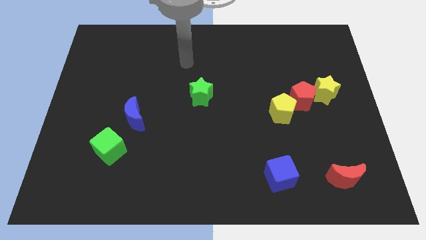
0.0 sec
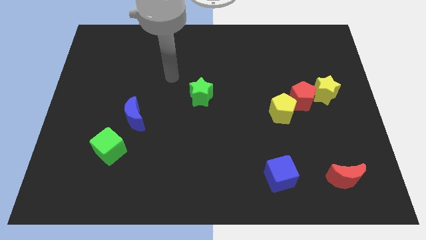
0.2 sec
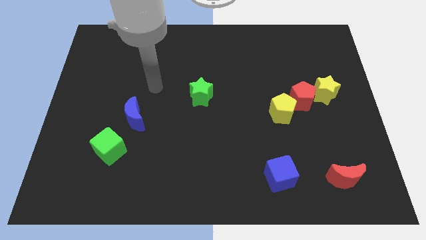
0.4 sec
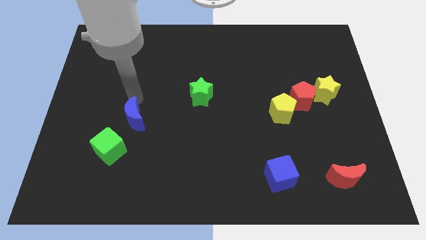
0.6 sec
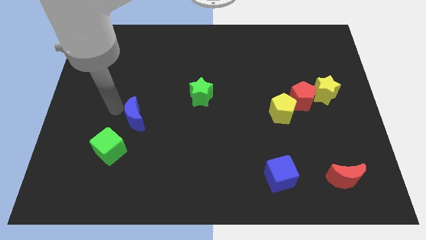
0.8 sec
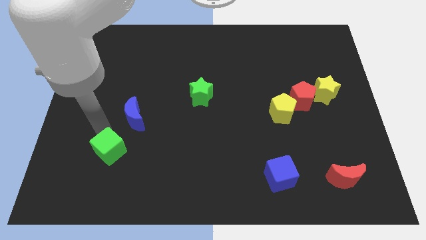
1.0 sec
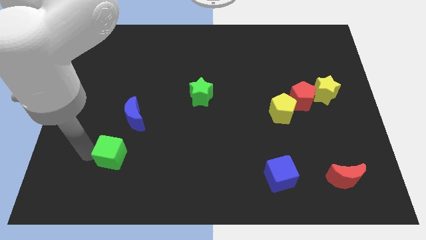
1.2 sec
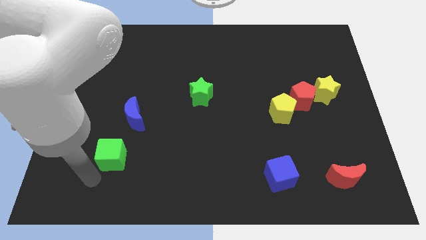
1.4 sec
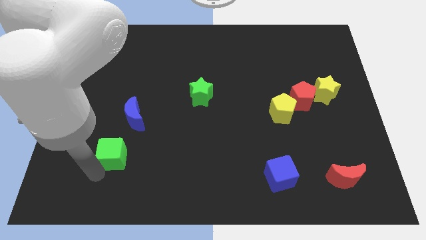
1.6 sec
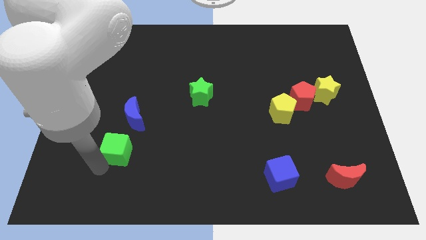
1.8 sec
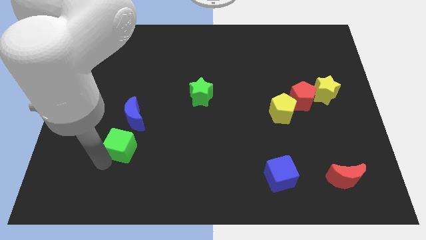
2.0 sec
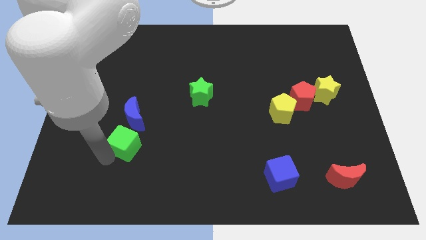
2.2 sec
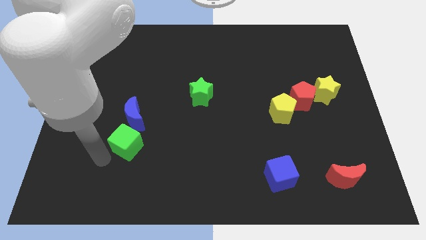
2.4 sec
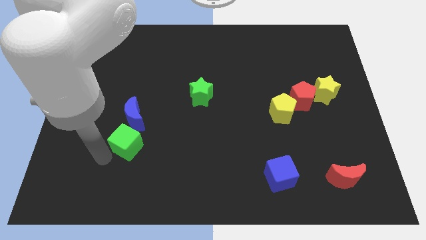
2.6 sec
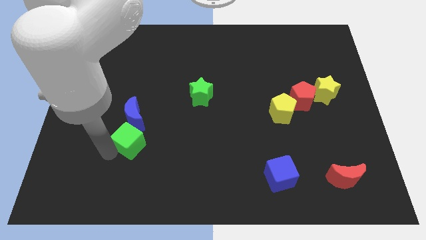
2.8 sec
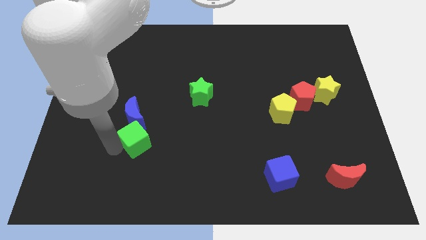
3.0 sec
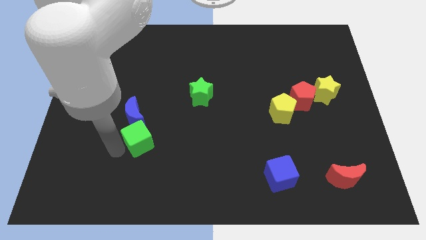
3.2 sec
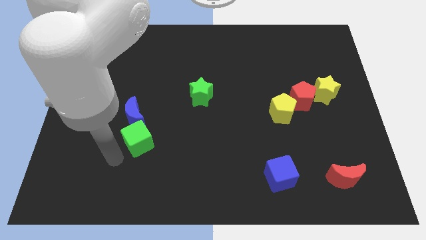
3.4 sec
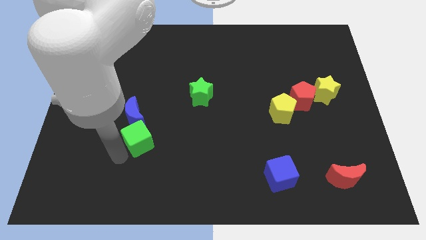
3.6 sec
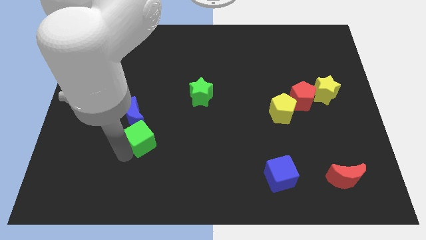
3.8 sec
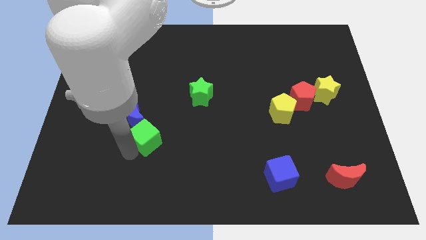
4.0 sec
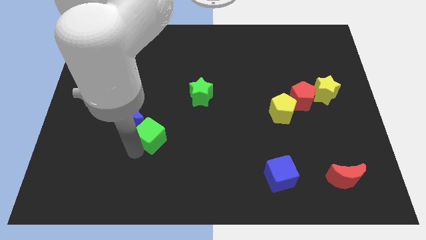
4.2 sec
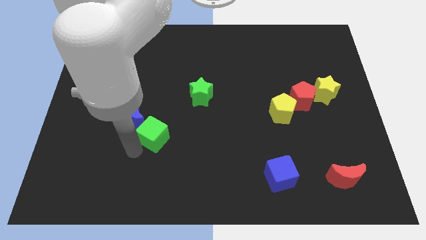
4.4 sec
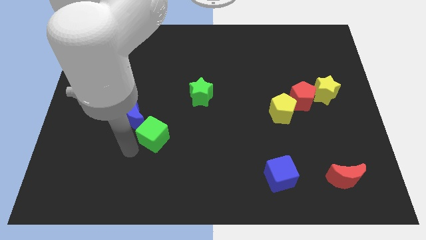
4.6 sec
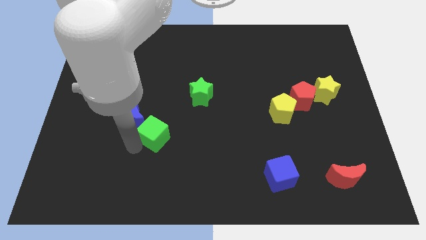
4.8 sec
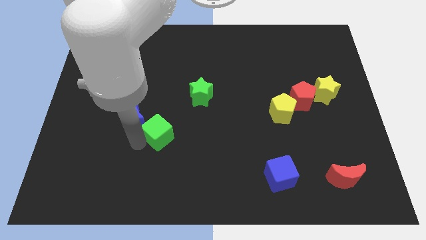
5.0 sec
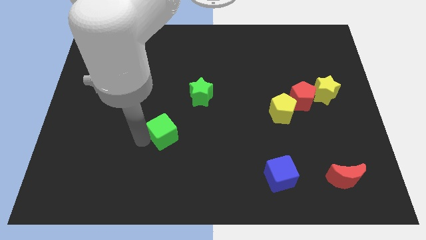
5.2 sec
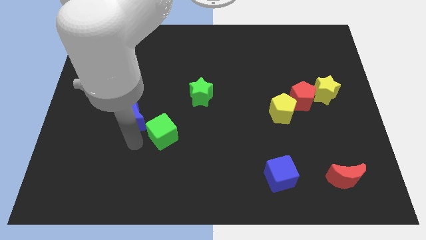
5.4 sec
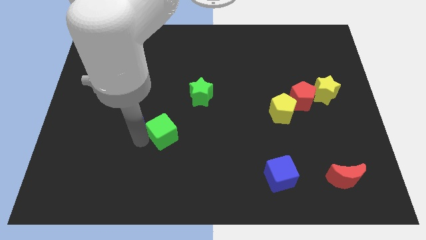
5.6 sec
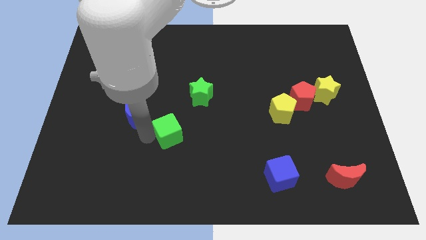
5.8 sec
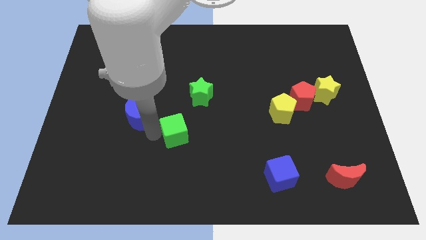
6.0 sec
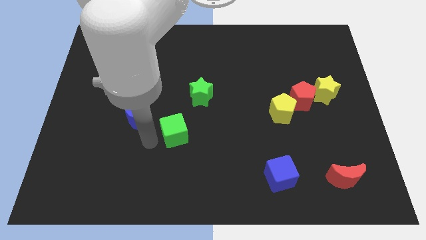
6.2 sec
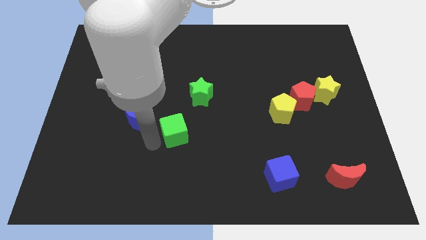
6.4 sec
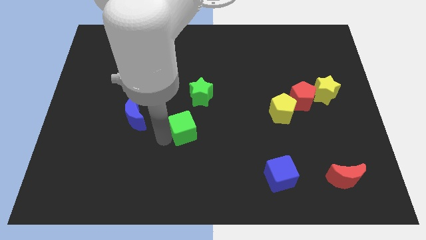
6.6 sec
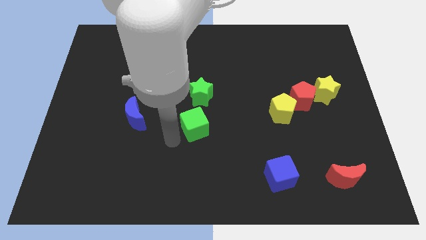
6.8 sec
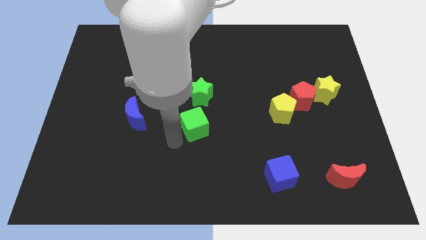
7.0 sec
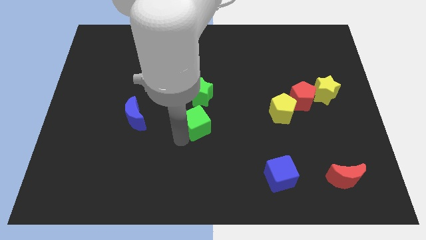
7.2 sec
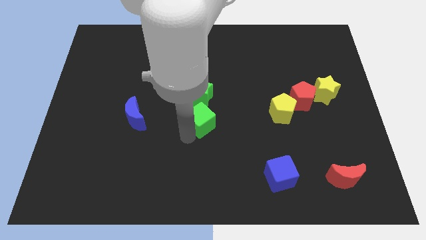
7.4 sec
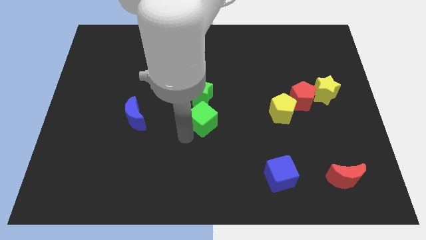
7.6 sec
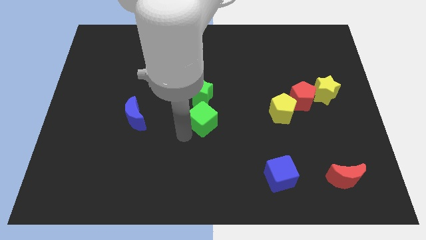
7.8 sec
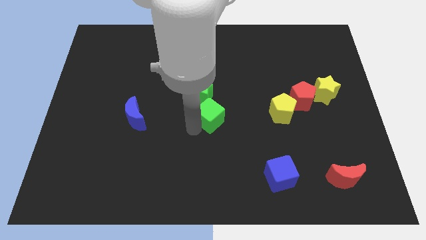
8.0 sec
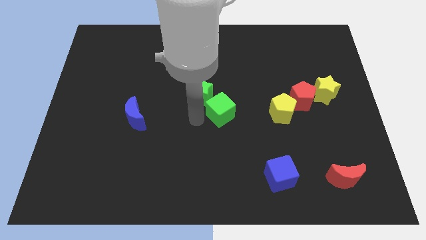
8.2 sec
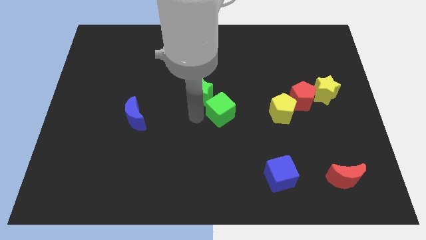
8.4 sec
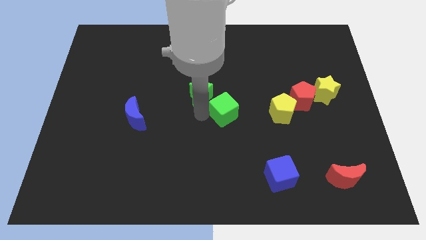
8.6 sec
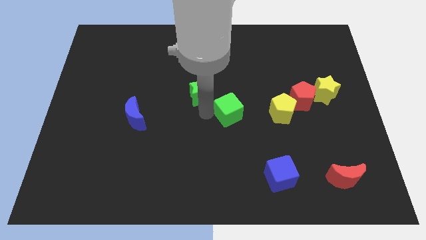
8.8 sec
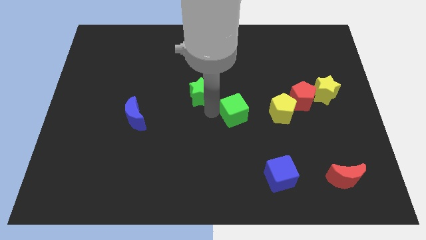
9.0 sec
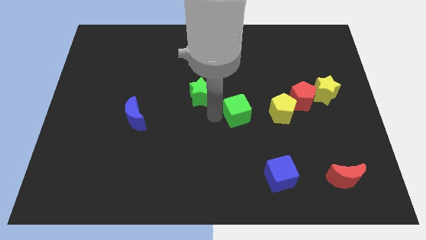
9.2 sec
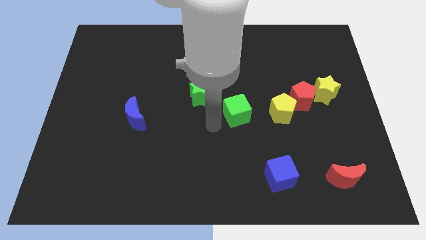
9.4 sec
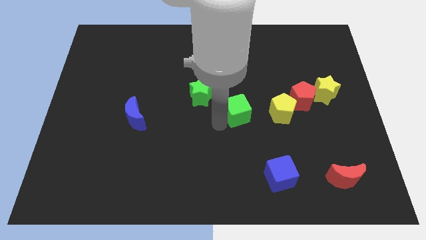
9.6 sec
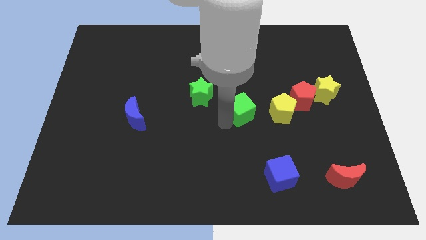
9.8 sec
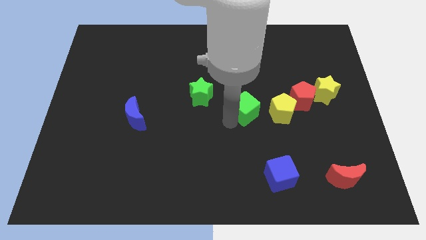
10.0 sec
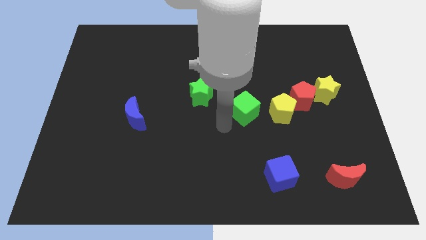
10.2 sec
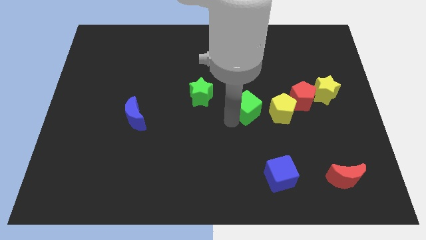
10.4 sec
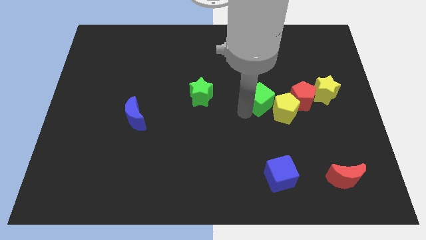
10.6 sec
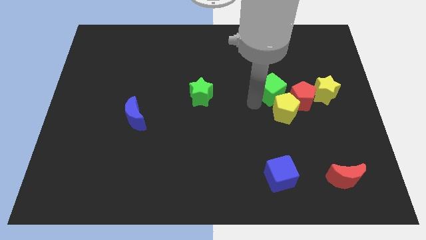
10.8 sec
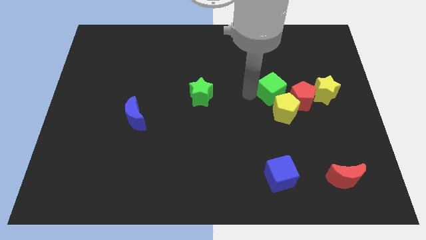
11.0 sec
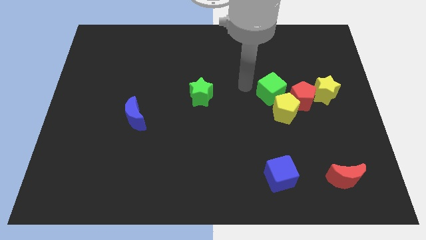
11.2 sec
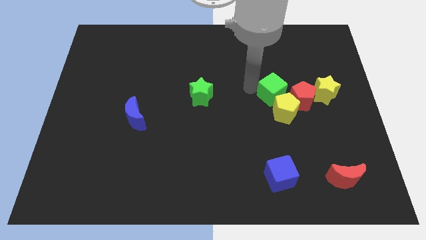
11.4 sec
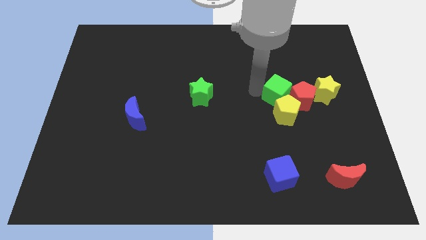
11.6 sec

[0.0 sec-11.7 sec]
slide the green cube close to the red pentagon

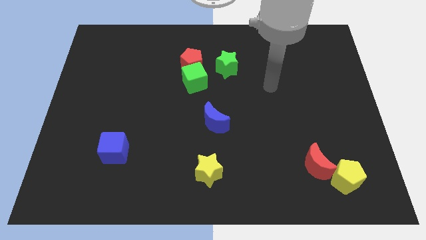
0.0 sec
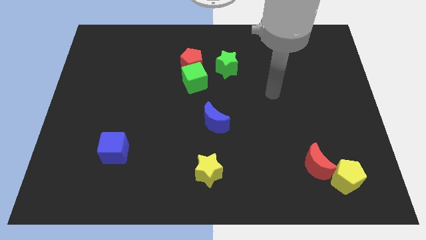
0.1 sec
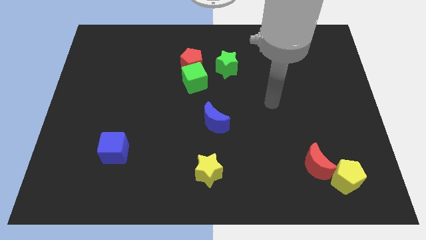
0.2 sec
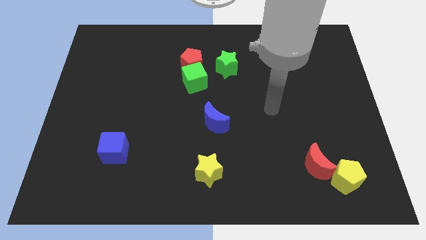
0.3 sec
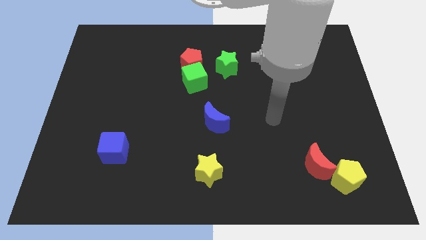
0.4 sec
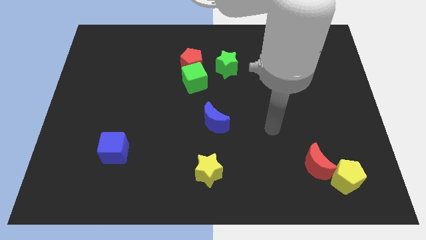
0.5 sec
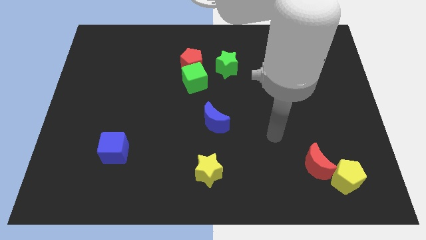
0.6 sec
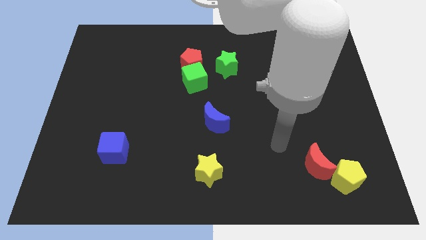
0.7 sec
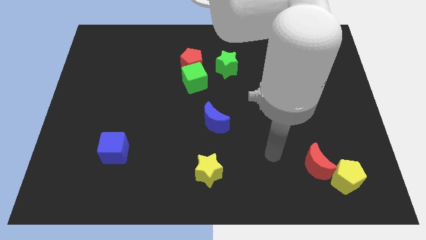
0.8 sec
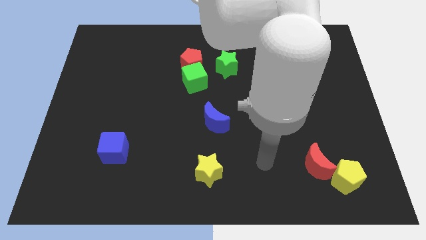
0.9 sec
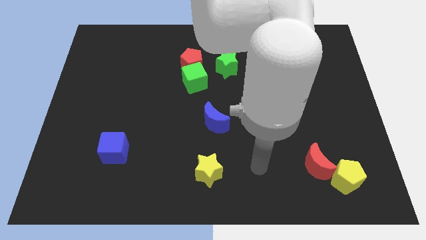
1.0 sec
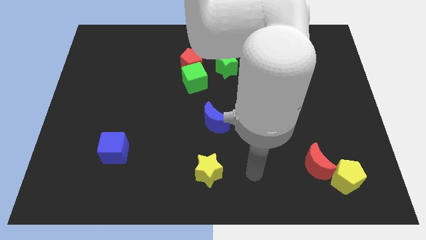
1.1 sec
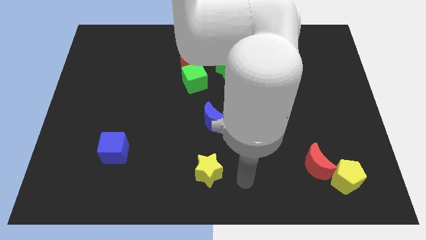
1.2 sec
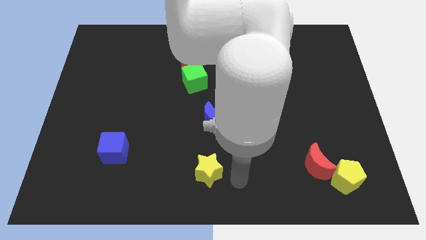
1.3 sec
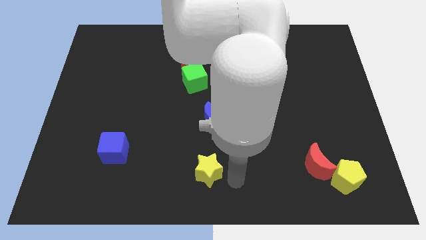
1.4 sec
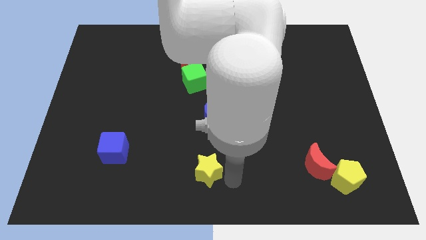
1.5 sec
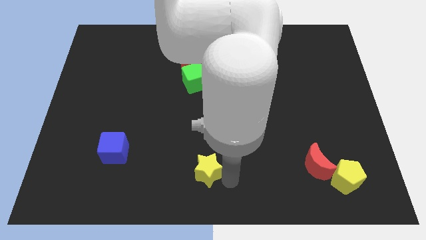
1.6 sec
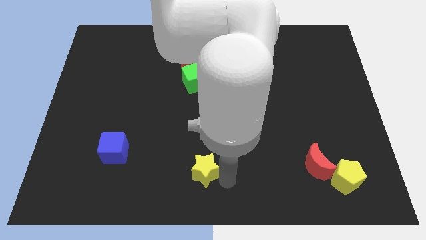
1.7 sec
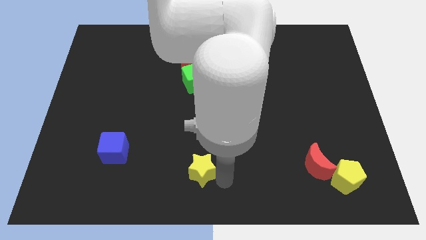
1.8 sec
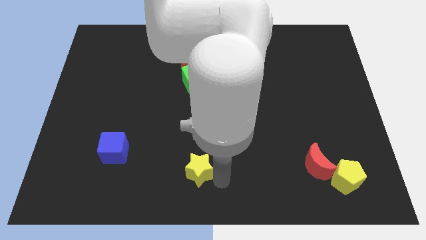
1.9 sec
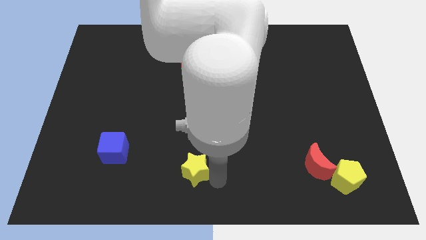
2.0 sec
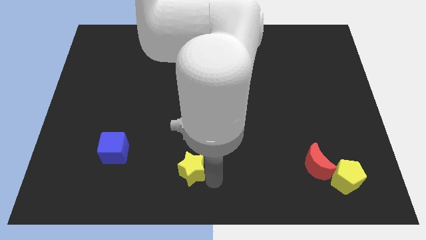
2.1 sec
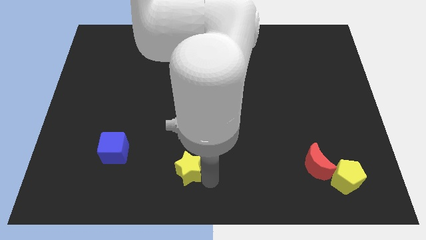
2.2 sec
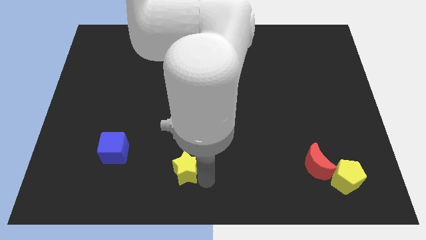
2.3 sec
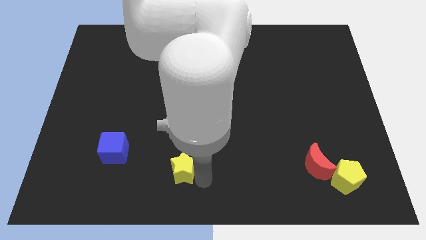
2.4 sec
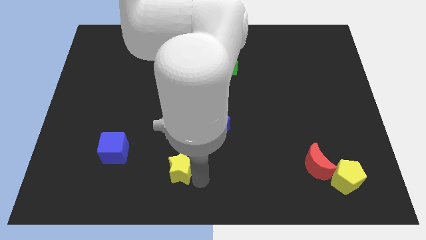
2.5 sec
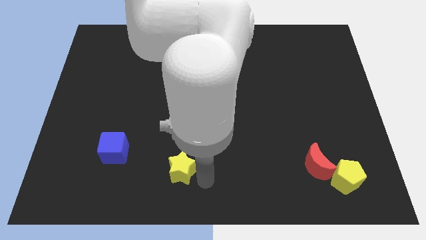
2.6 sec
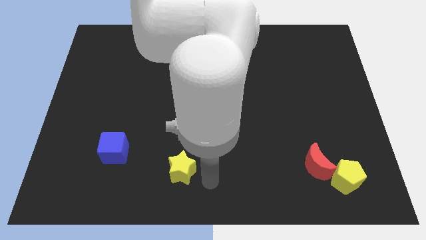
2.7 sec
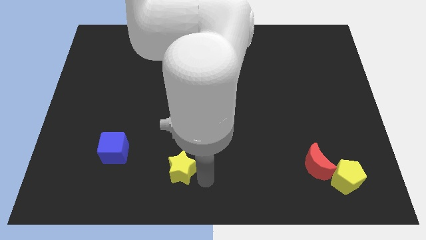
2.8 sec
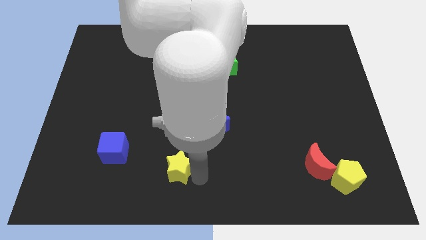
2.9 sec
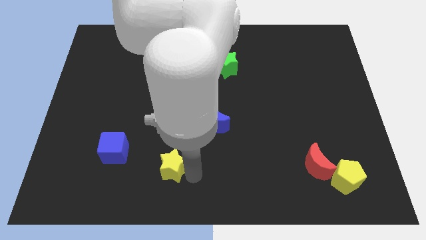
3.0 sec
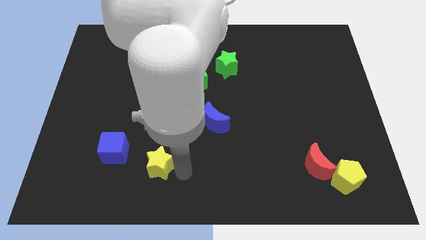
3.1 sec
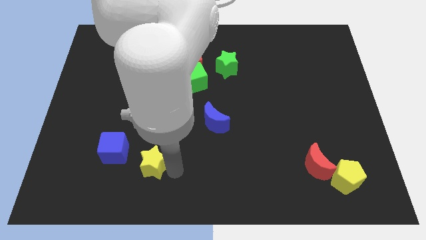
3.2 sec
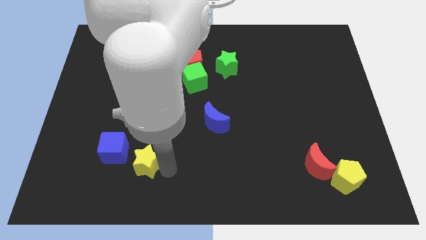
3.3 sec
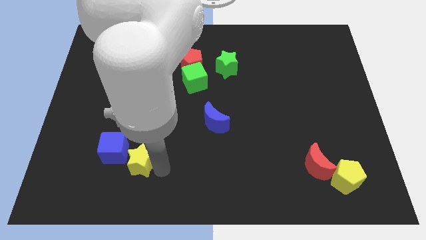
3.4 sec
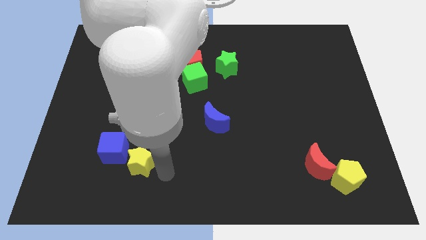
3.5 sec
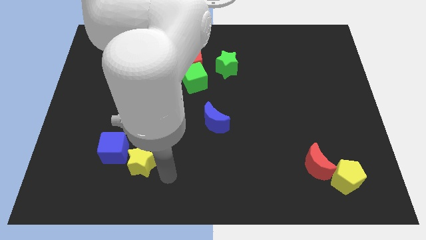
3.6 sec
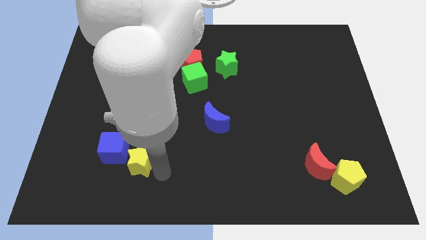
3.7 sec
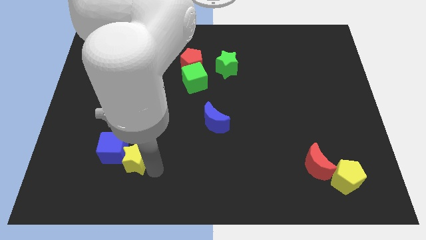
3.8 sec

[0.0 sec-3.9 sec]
move the yellow star close to the blue cube
